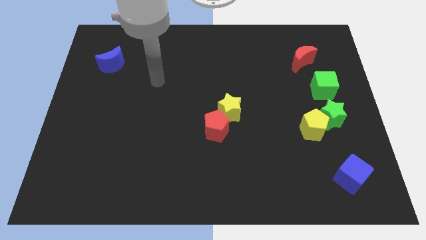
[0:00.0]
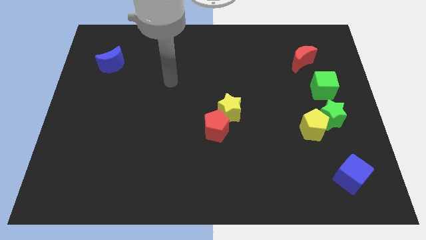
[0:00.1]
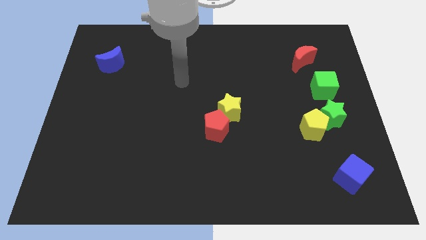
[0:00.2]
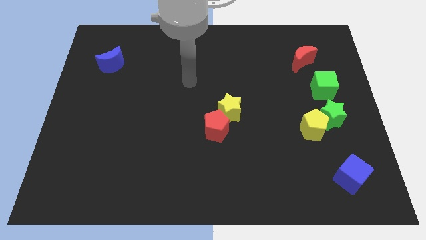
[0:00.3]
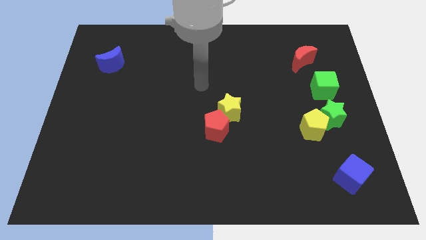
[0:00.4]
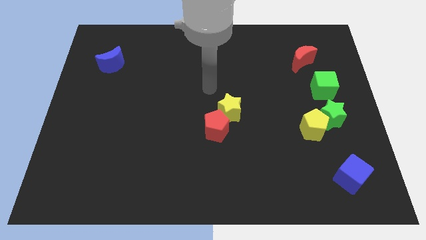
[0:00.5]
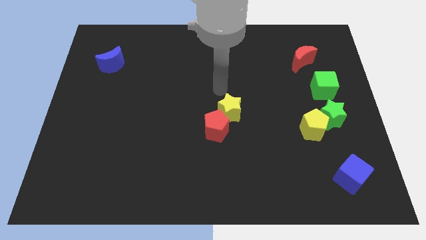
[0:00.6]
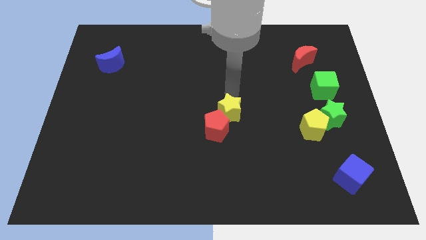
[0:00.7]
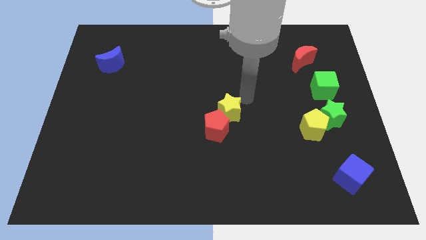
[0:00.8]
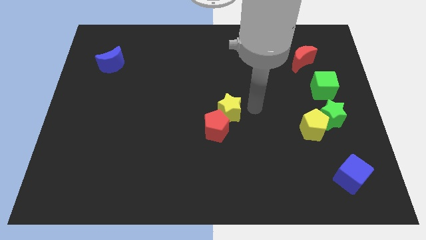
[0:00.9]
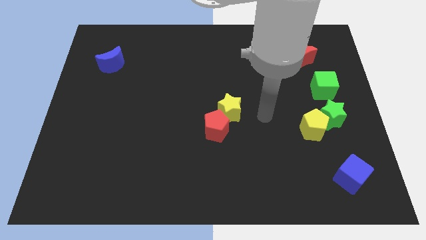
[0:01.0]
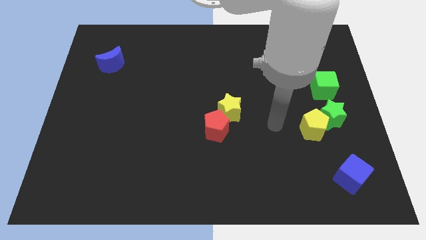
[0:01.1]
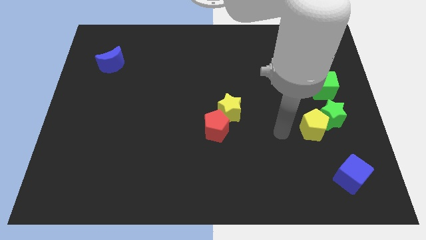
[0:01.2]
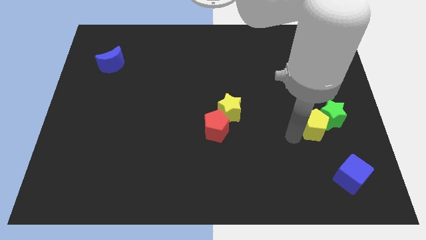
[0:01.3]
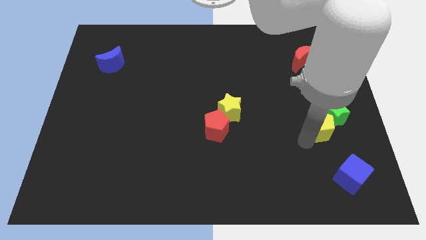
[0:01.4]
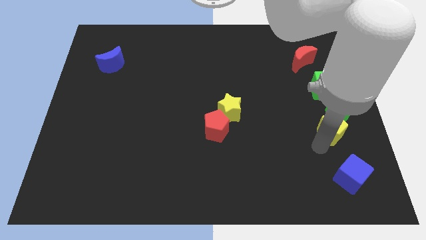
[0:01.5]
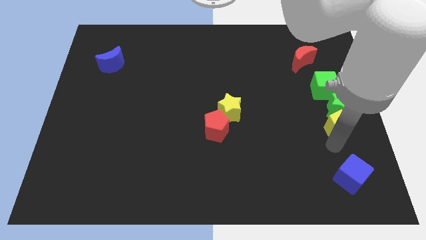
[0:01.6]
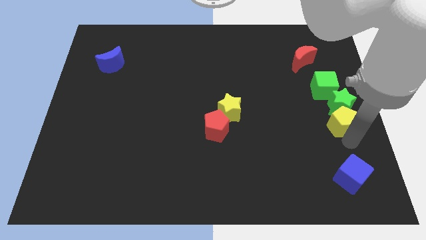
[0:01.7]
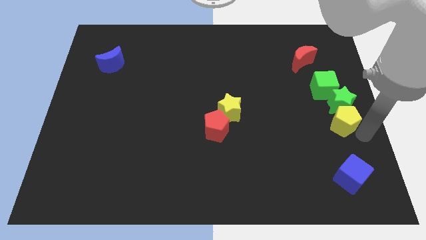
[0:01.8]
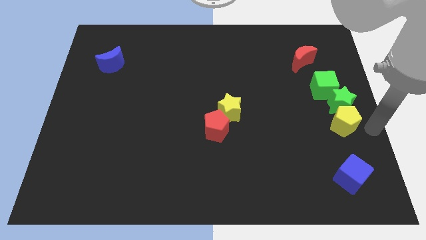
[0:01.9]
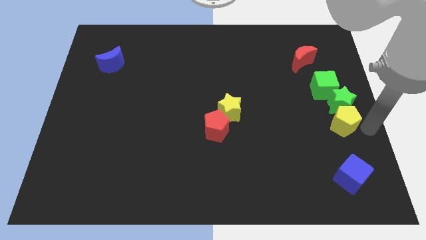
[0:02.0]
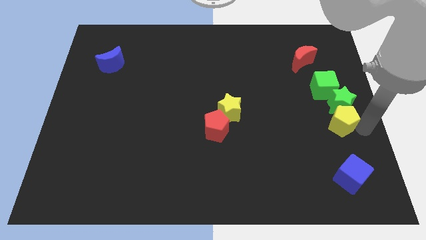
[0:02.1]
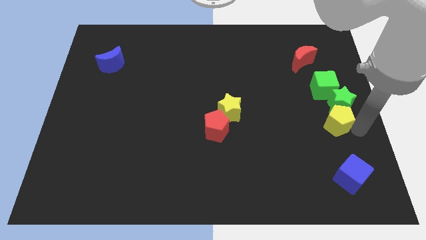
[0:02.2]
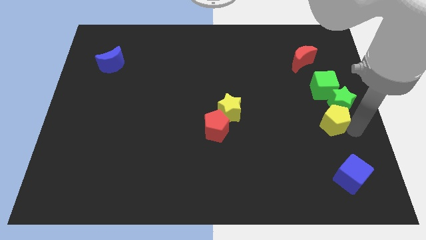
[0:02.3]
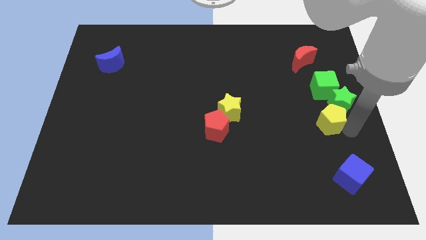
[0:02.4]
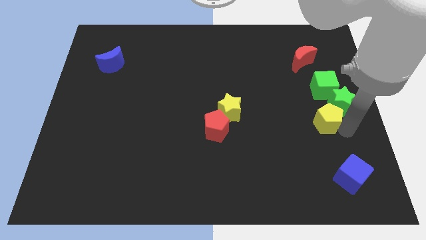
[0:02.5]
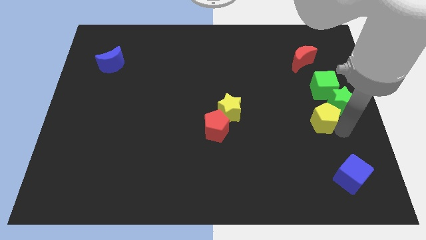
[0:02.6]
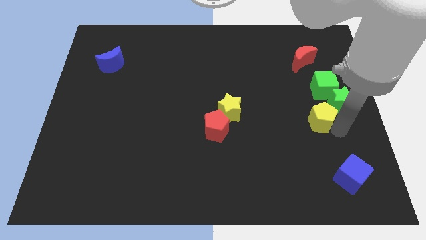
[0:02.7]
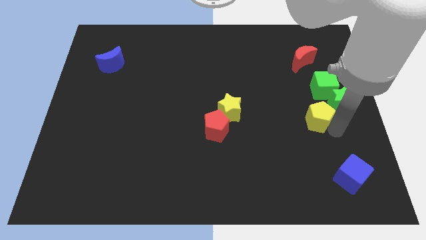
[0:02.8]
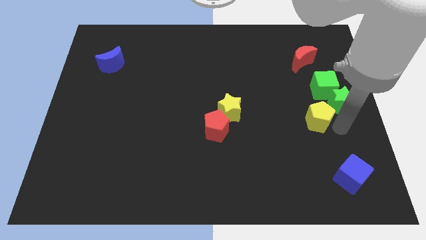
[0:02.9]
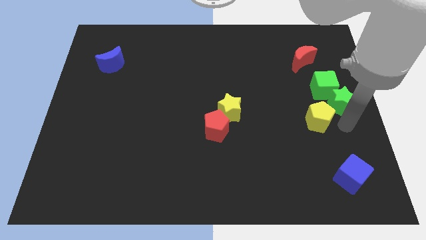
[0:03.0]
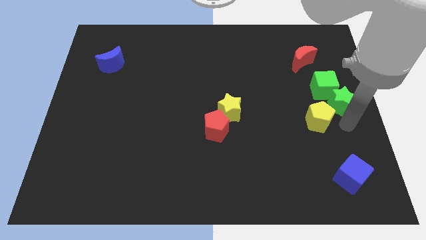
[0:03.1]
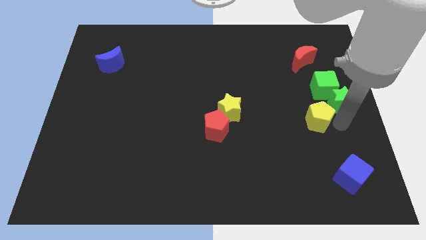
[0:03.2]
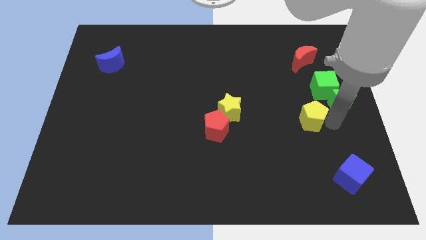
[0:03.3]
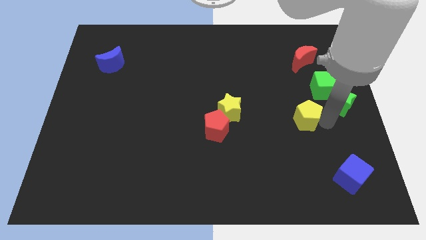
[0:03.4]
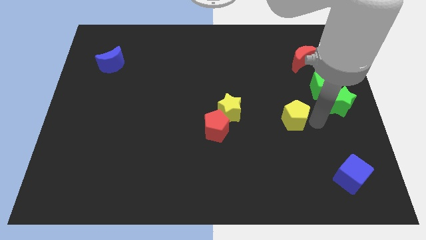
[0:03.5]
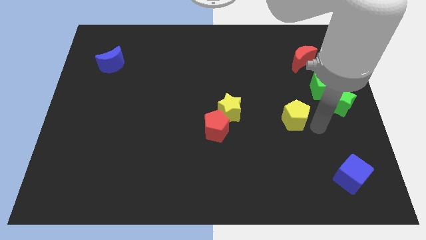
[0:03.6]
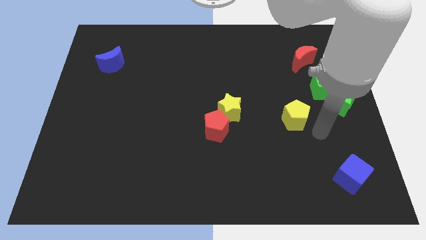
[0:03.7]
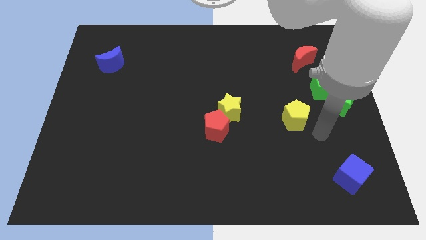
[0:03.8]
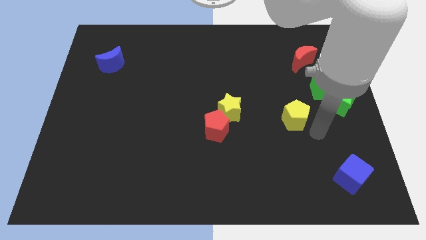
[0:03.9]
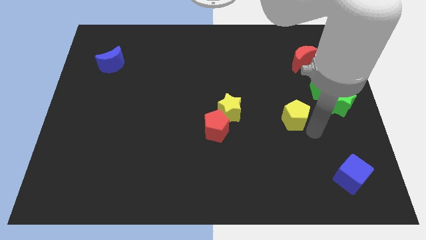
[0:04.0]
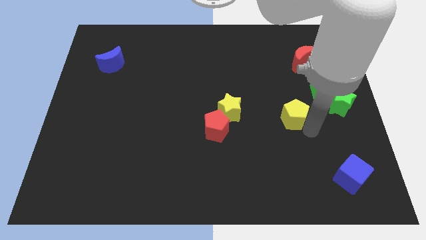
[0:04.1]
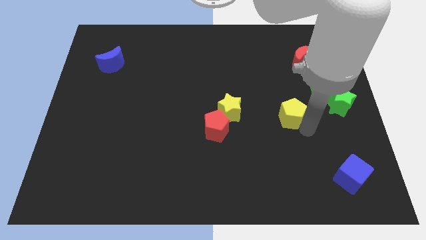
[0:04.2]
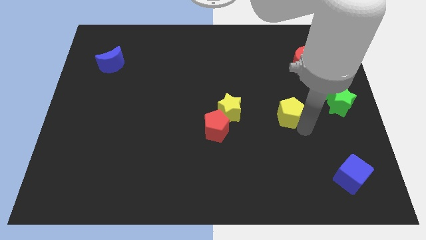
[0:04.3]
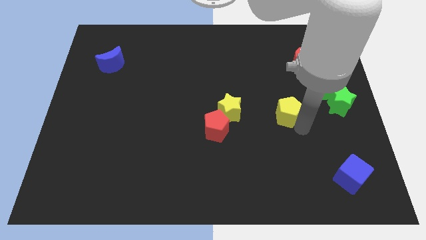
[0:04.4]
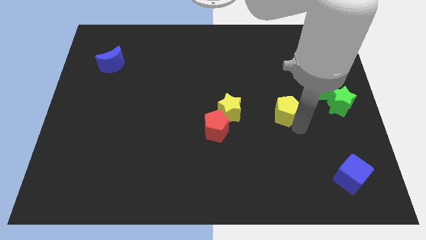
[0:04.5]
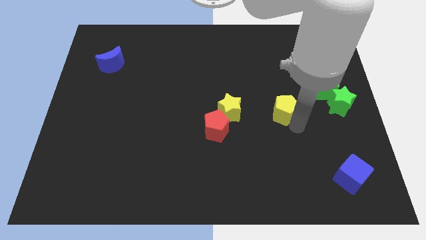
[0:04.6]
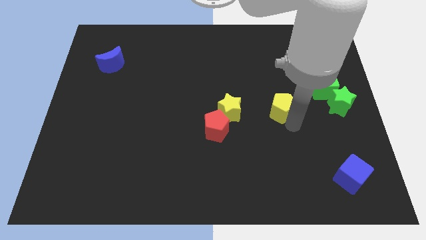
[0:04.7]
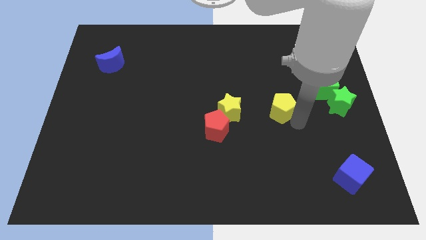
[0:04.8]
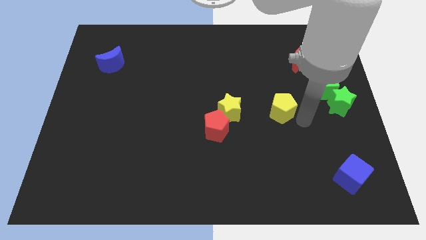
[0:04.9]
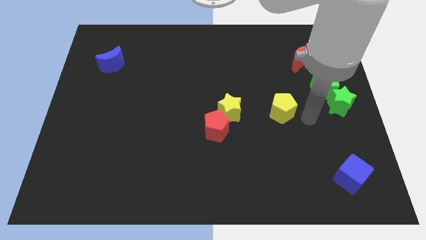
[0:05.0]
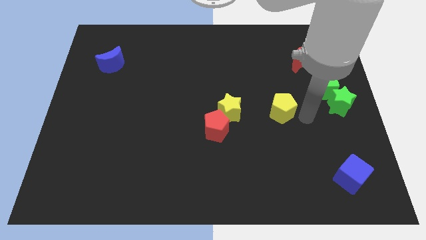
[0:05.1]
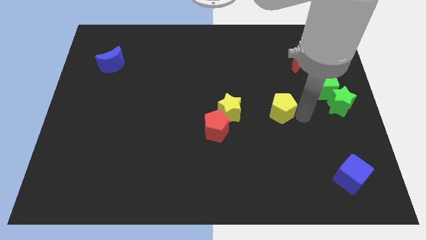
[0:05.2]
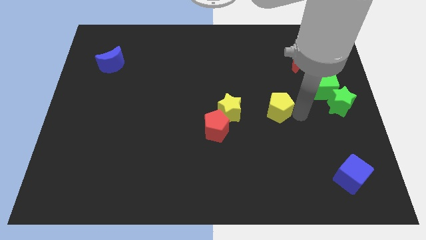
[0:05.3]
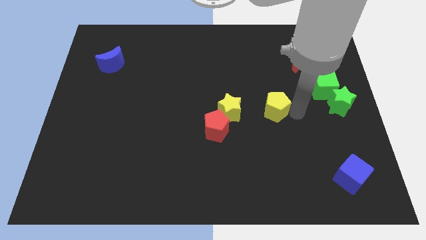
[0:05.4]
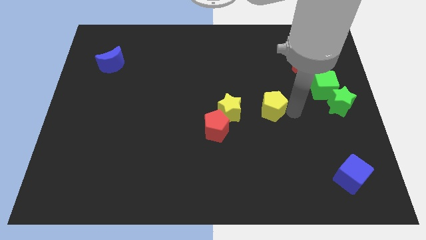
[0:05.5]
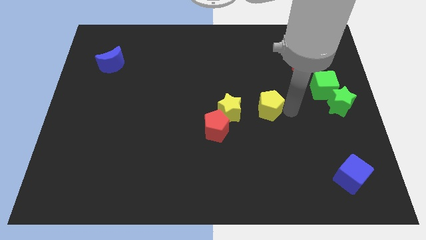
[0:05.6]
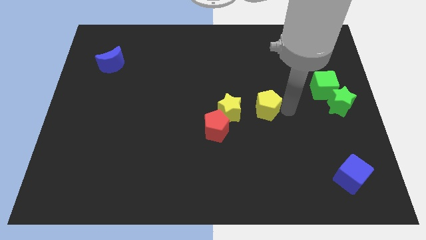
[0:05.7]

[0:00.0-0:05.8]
move the yellow pentagon to the middle of the board

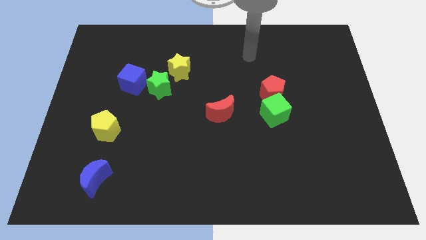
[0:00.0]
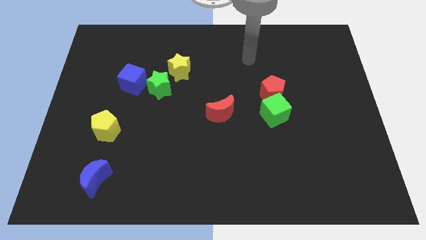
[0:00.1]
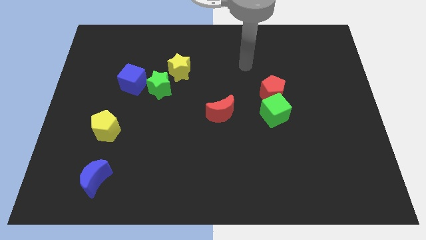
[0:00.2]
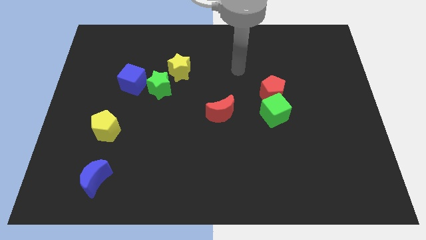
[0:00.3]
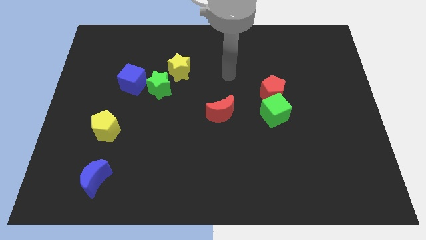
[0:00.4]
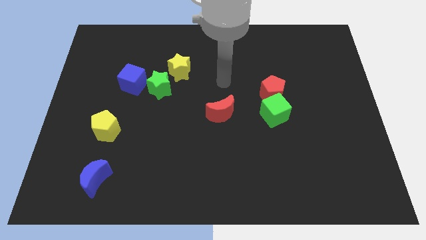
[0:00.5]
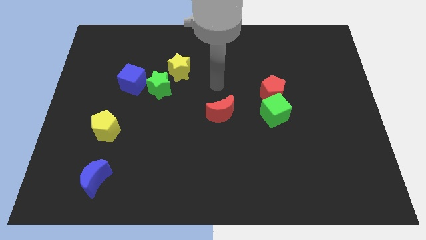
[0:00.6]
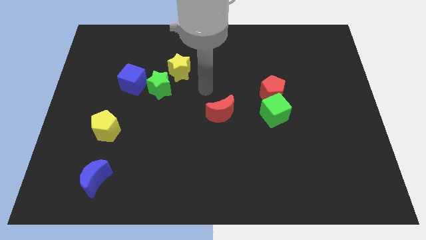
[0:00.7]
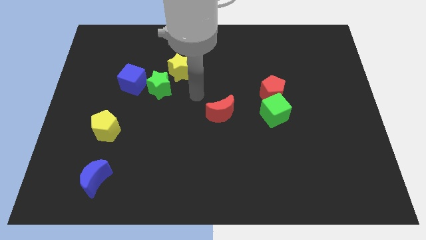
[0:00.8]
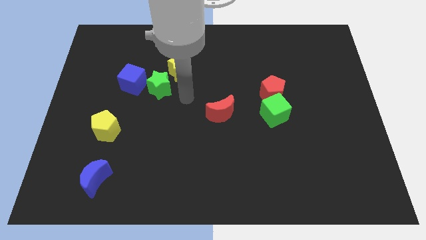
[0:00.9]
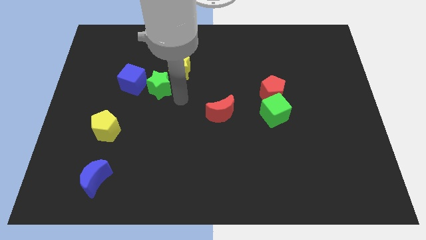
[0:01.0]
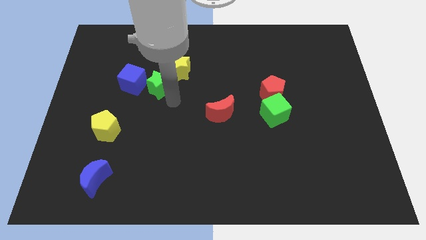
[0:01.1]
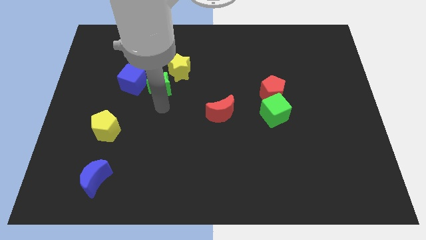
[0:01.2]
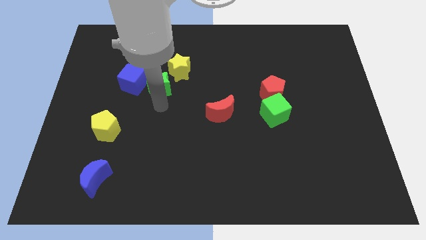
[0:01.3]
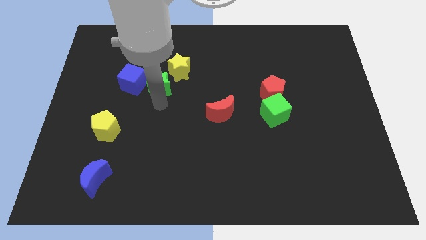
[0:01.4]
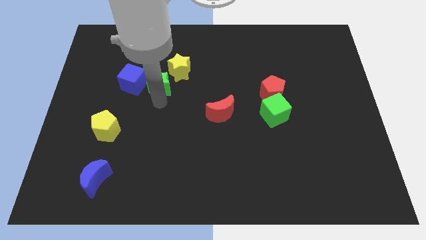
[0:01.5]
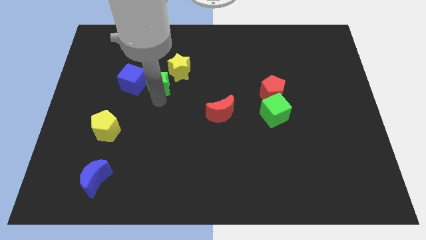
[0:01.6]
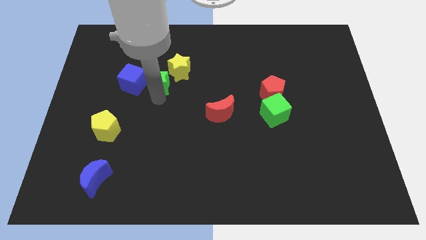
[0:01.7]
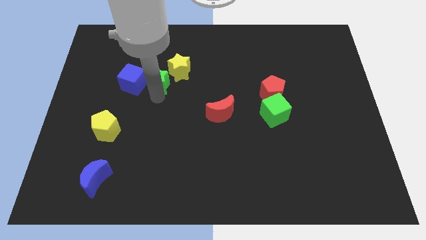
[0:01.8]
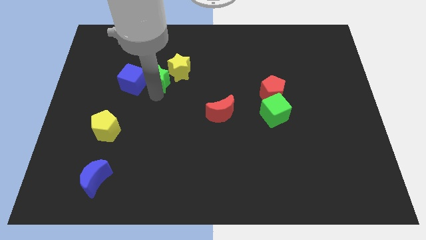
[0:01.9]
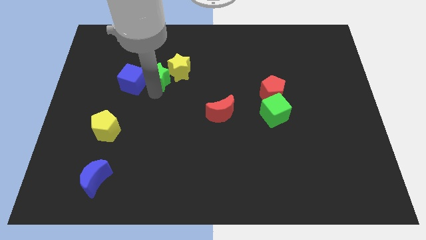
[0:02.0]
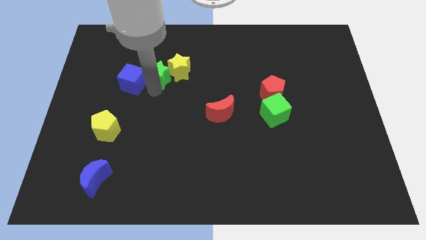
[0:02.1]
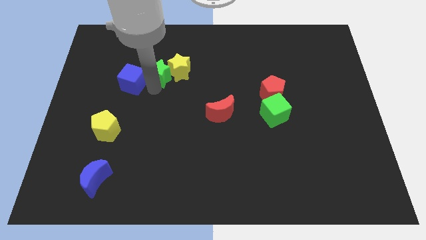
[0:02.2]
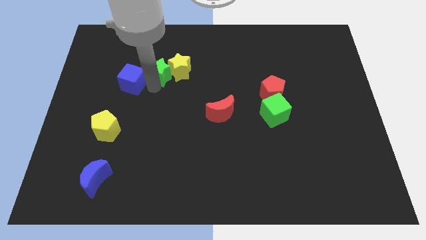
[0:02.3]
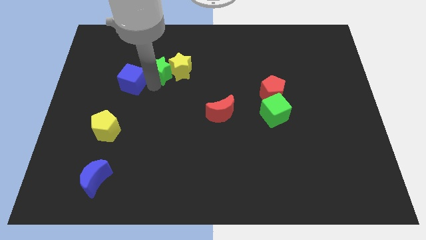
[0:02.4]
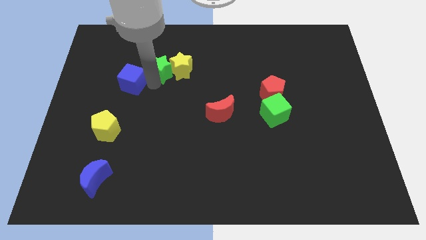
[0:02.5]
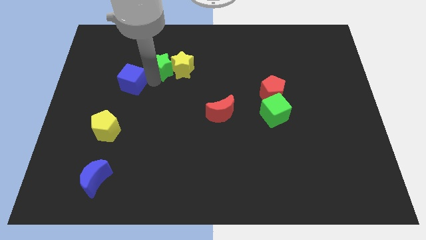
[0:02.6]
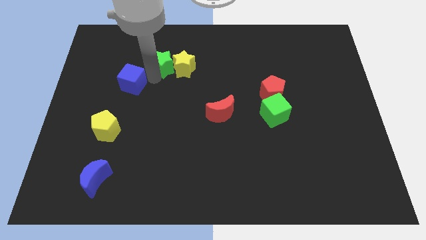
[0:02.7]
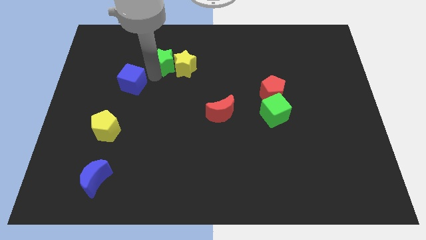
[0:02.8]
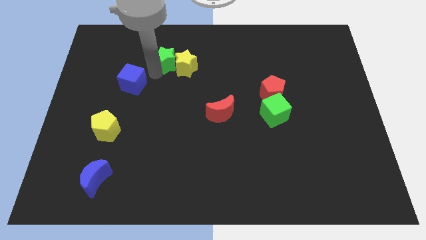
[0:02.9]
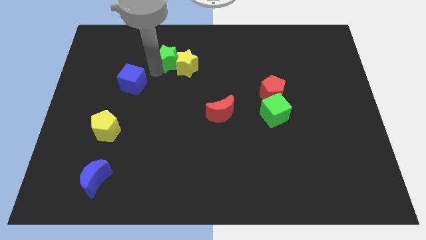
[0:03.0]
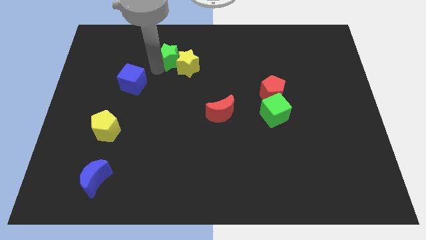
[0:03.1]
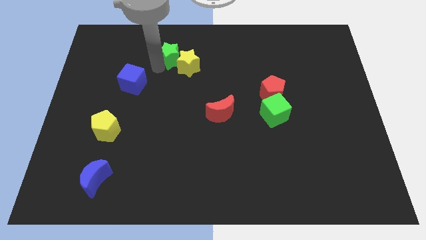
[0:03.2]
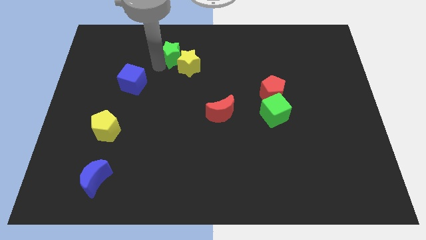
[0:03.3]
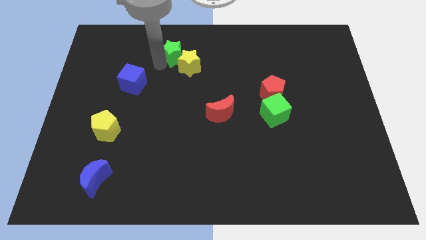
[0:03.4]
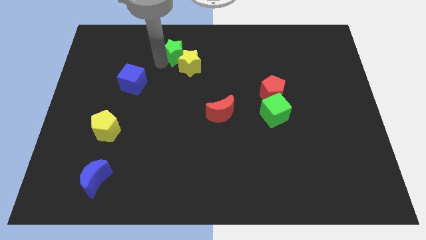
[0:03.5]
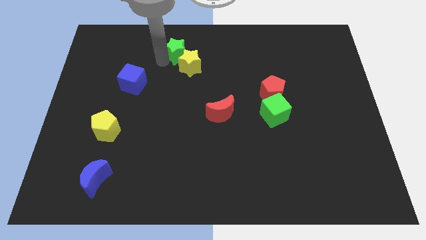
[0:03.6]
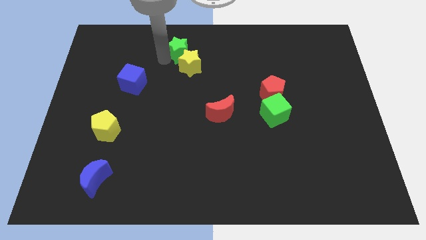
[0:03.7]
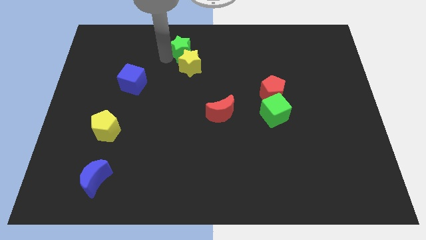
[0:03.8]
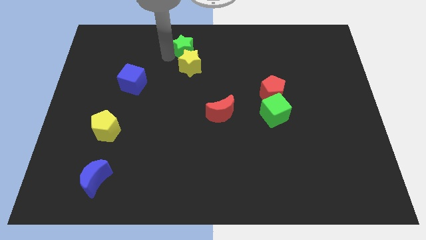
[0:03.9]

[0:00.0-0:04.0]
push the green star to the towards your base
